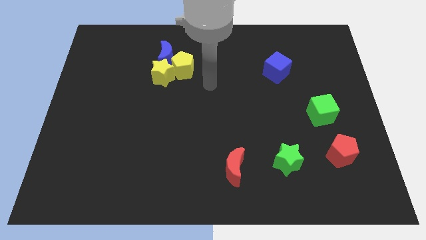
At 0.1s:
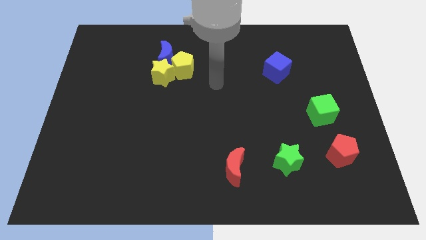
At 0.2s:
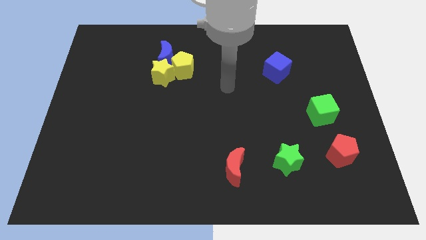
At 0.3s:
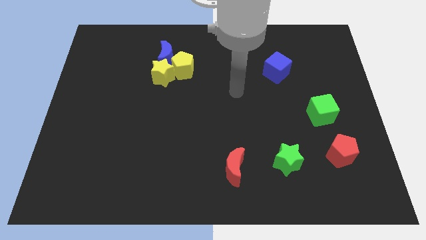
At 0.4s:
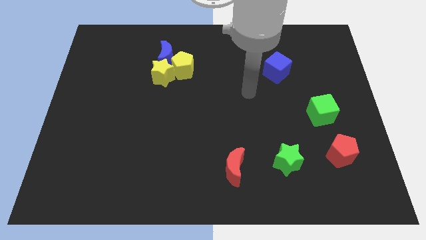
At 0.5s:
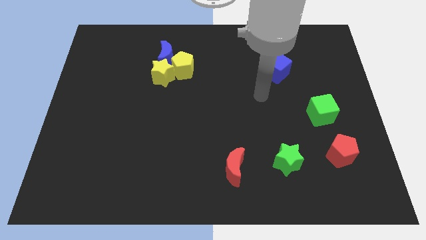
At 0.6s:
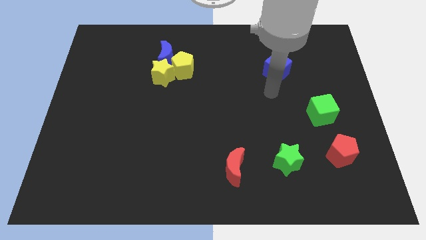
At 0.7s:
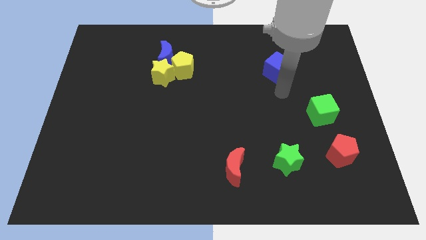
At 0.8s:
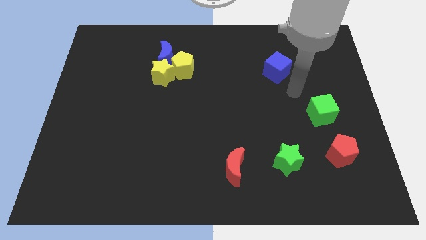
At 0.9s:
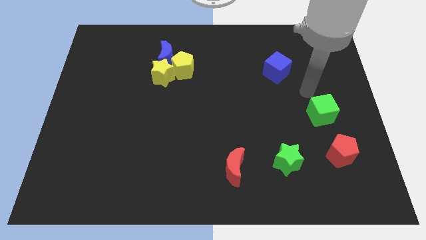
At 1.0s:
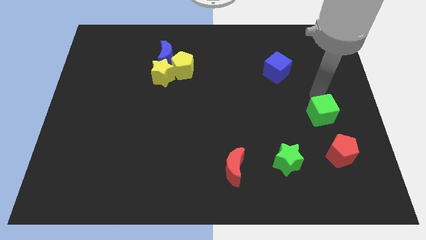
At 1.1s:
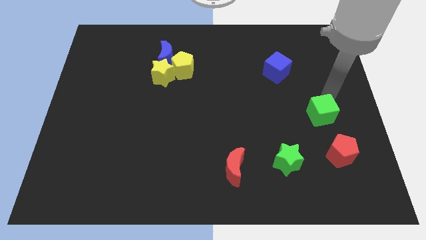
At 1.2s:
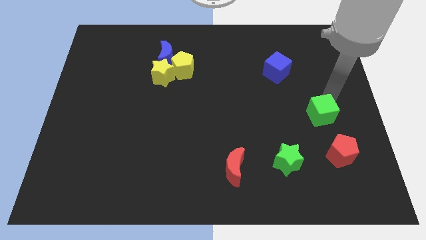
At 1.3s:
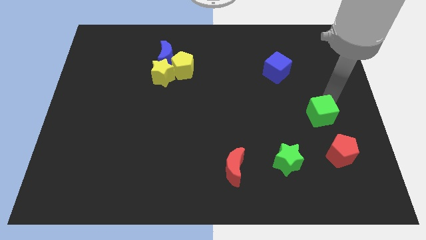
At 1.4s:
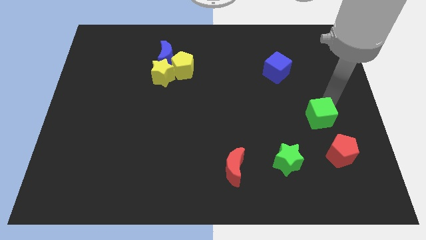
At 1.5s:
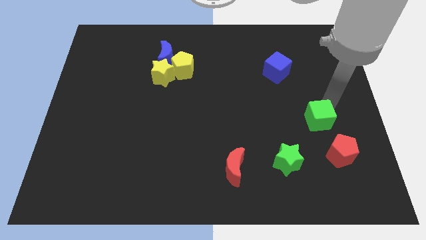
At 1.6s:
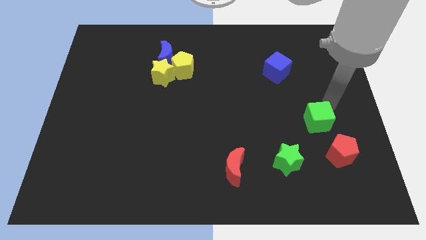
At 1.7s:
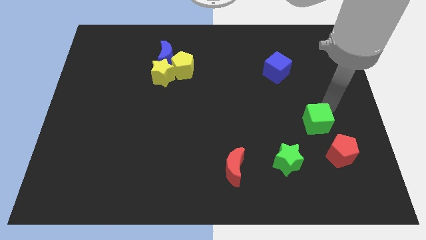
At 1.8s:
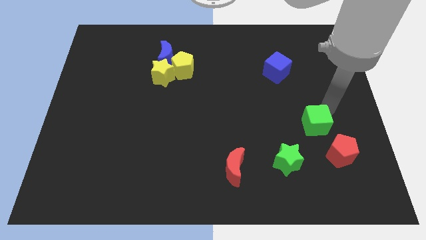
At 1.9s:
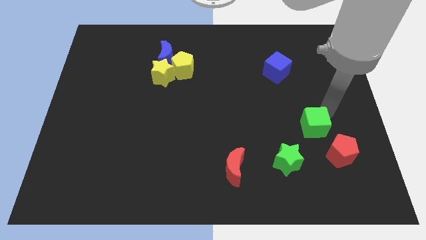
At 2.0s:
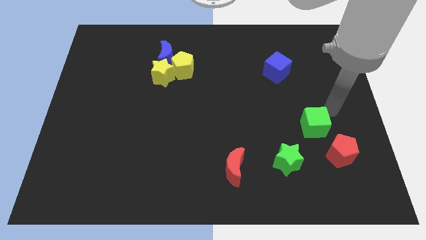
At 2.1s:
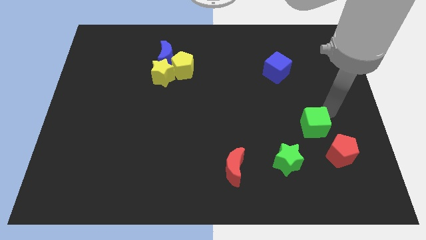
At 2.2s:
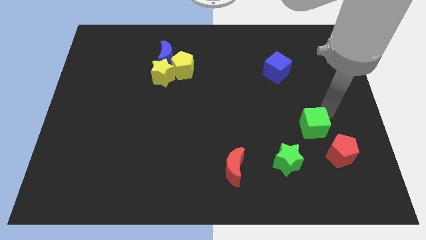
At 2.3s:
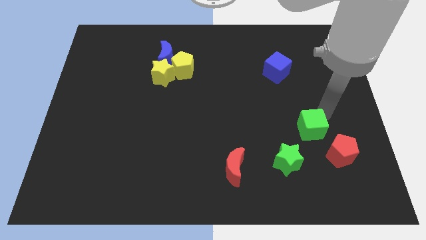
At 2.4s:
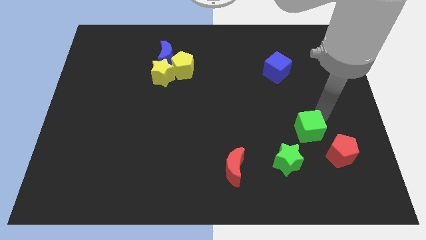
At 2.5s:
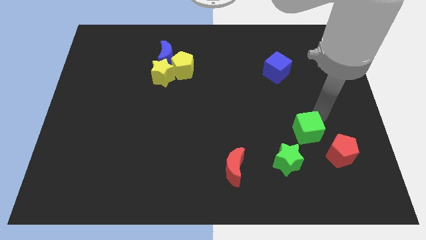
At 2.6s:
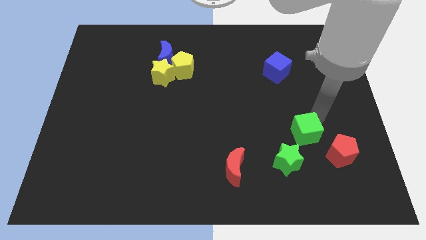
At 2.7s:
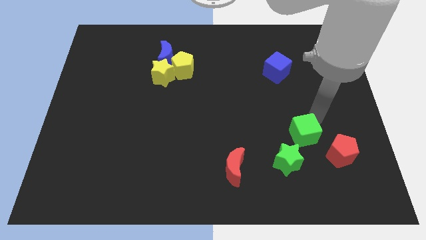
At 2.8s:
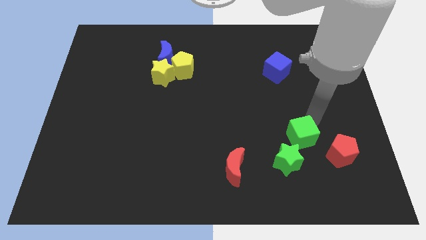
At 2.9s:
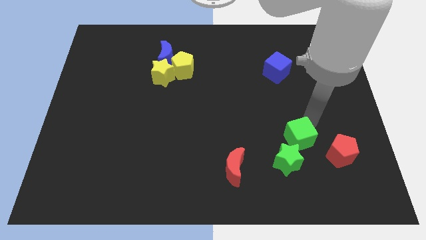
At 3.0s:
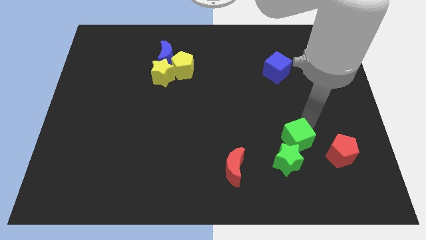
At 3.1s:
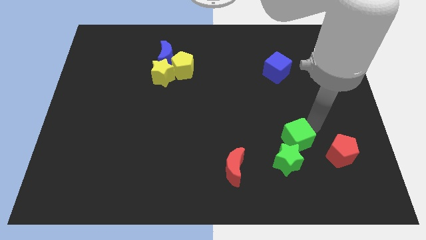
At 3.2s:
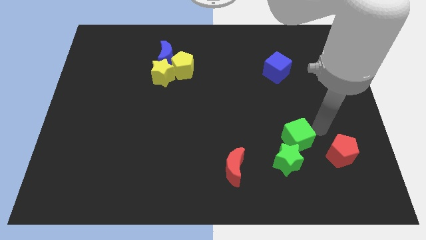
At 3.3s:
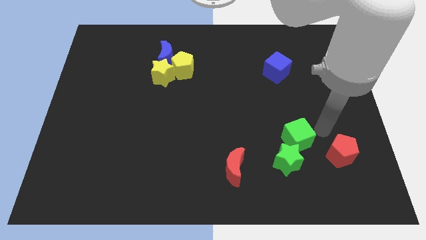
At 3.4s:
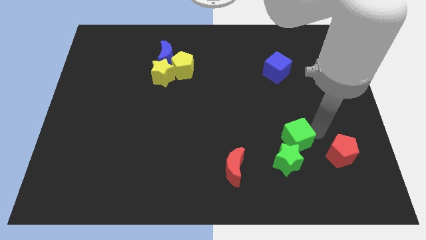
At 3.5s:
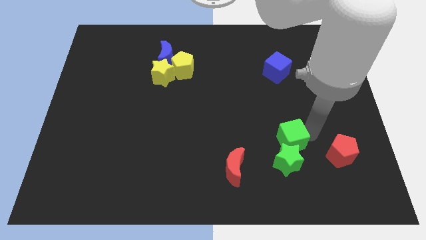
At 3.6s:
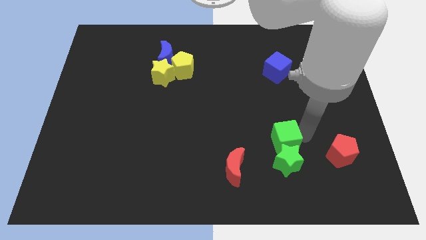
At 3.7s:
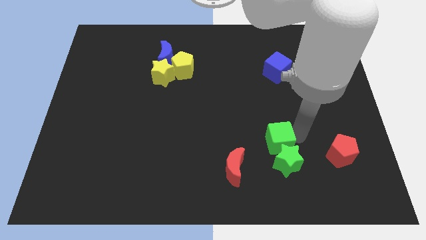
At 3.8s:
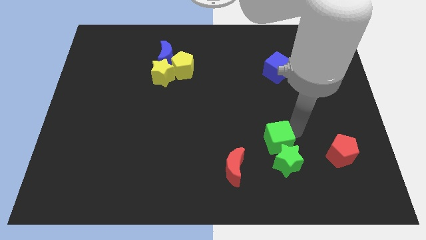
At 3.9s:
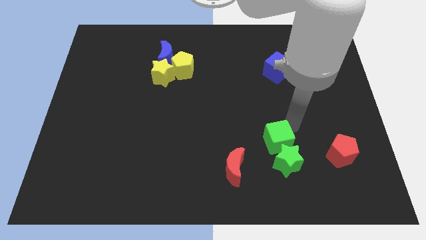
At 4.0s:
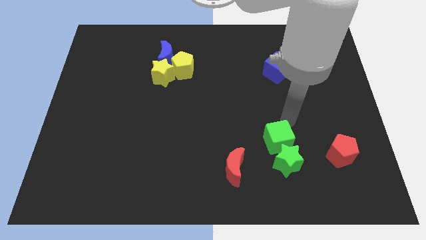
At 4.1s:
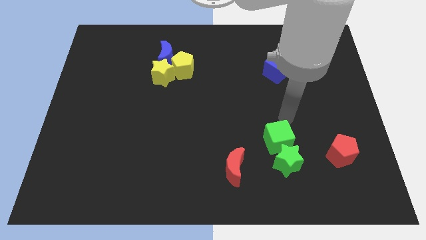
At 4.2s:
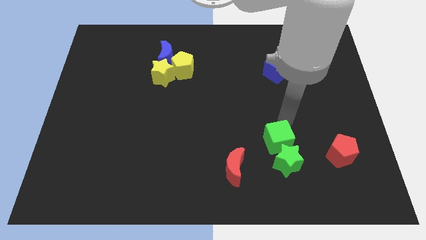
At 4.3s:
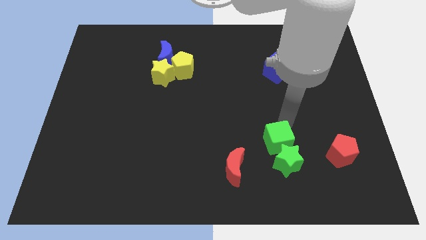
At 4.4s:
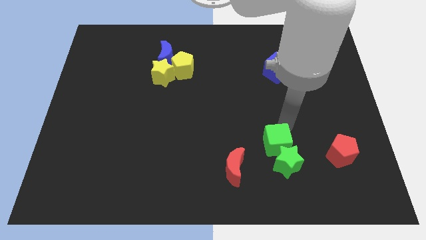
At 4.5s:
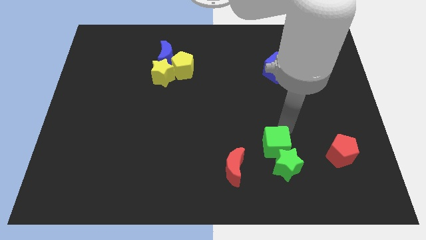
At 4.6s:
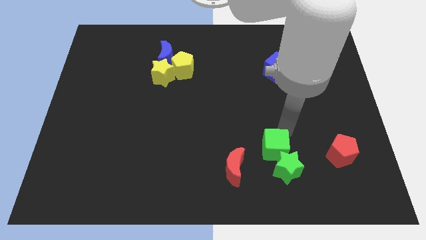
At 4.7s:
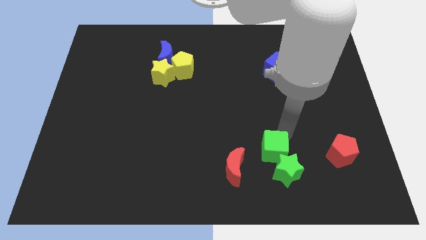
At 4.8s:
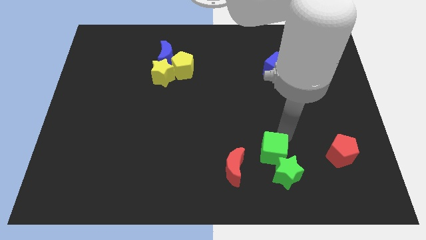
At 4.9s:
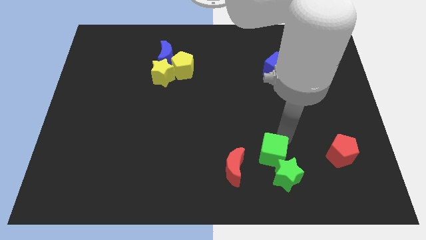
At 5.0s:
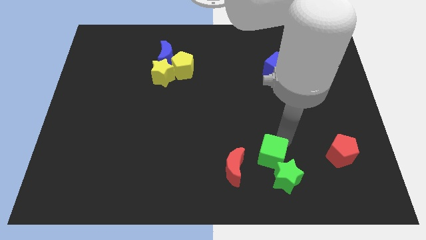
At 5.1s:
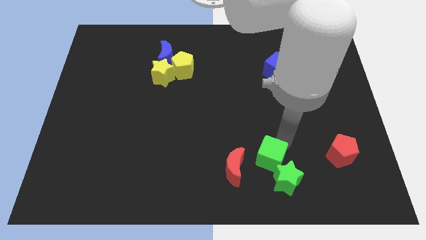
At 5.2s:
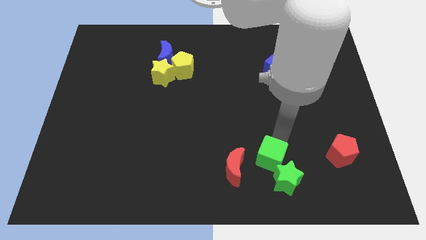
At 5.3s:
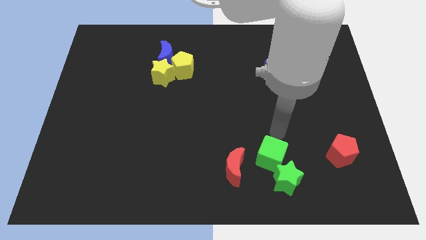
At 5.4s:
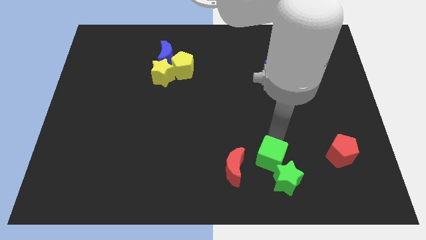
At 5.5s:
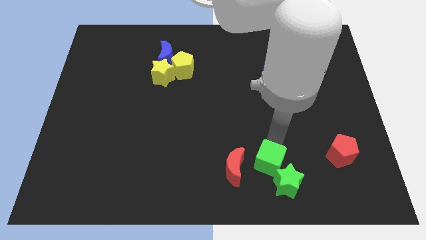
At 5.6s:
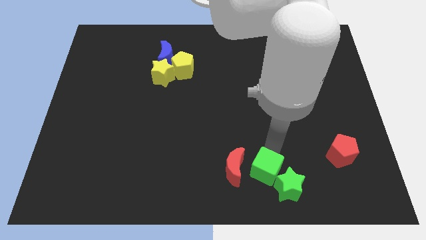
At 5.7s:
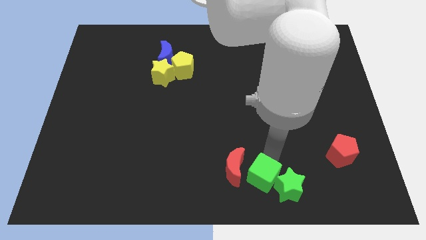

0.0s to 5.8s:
put the green cube to the bottom
